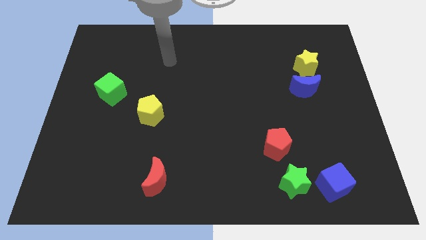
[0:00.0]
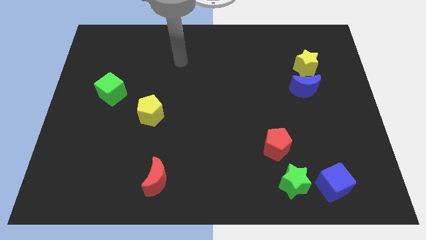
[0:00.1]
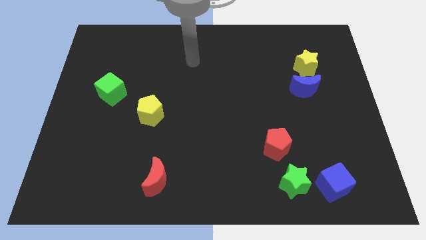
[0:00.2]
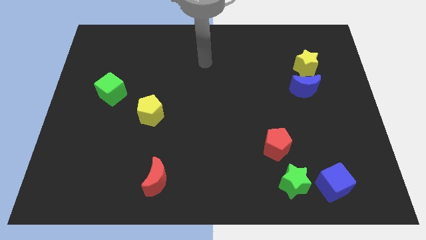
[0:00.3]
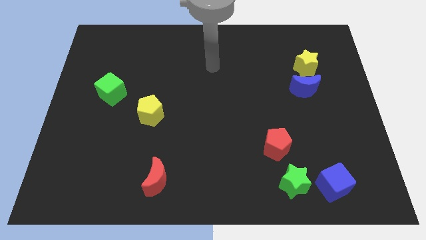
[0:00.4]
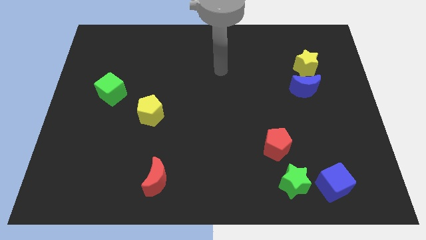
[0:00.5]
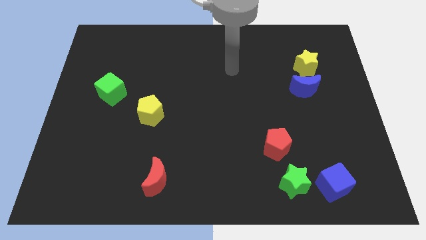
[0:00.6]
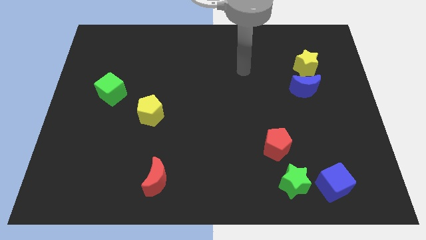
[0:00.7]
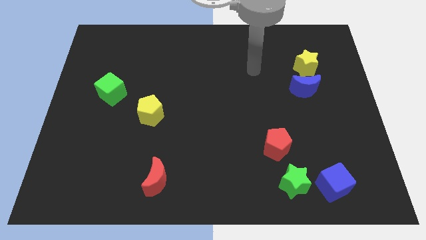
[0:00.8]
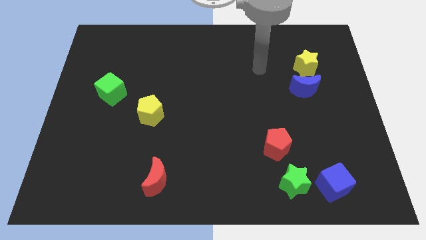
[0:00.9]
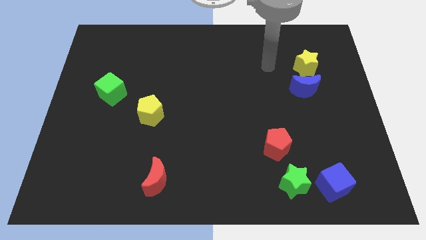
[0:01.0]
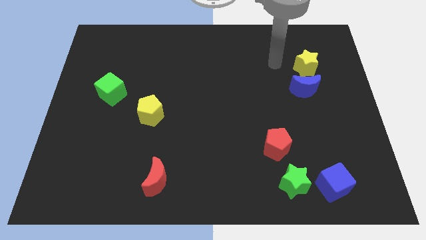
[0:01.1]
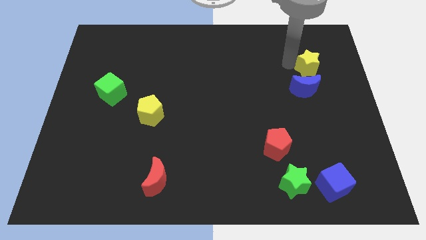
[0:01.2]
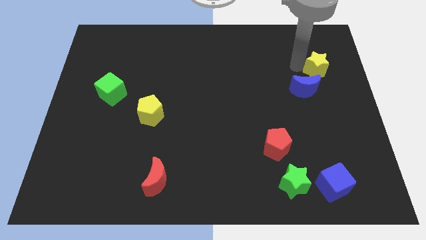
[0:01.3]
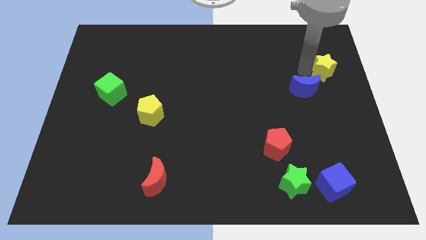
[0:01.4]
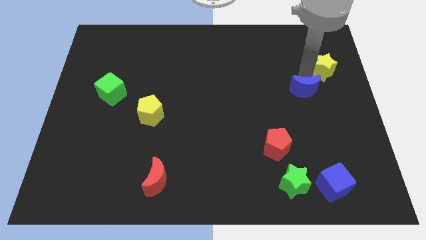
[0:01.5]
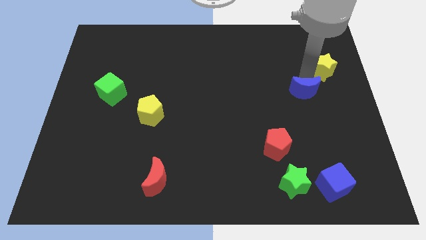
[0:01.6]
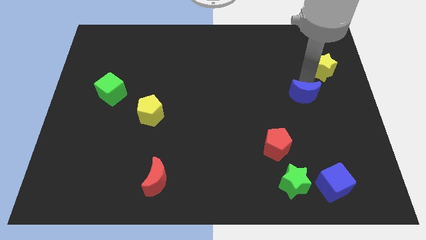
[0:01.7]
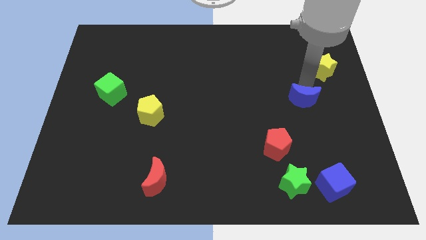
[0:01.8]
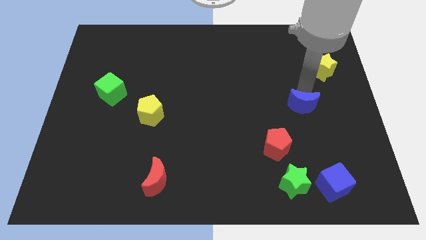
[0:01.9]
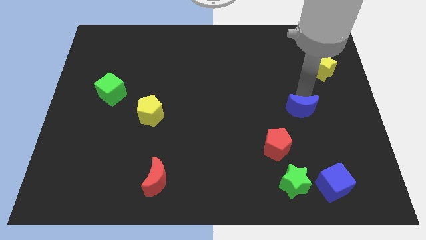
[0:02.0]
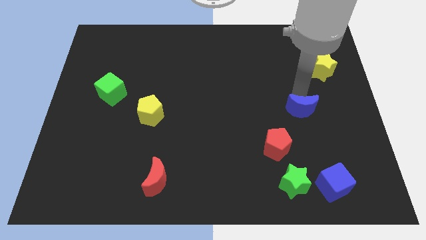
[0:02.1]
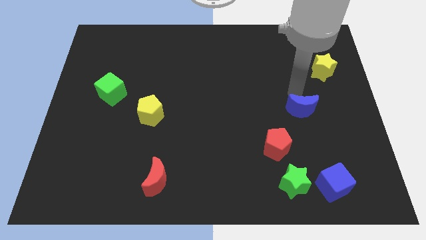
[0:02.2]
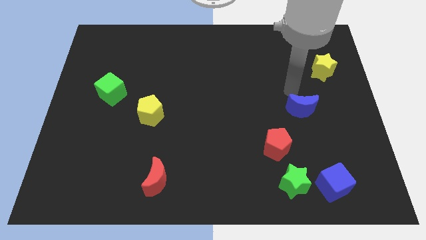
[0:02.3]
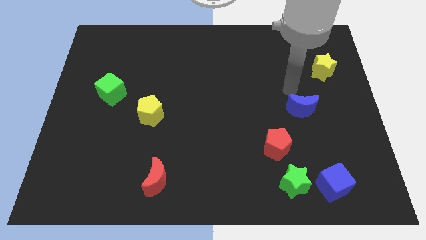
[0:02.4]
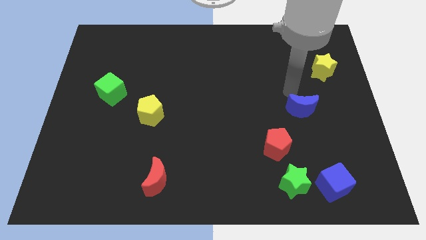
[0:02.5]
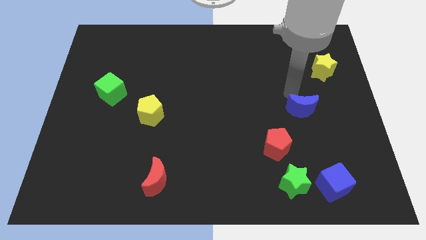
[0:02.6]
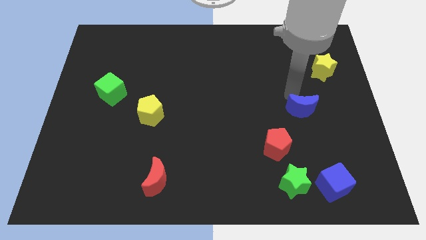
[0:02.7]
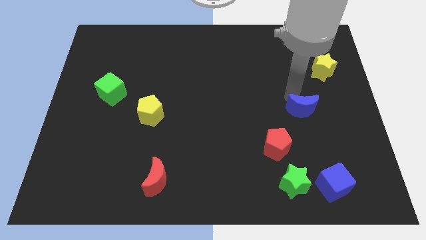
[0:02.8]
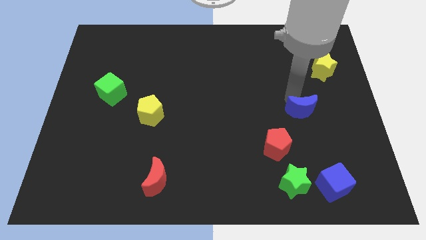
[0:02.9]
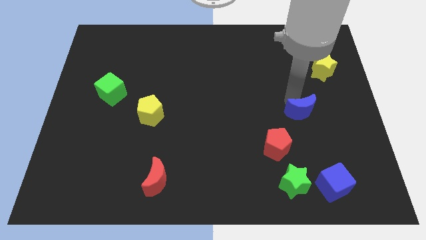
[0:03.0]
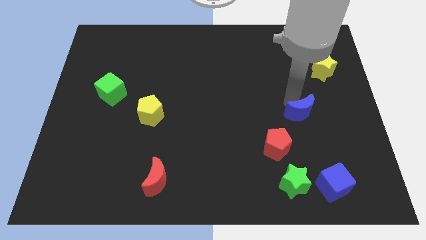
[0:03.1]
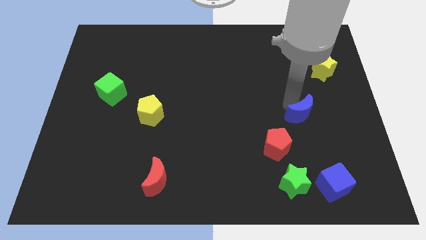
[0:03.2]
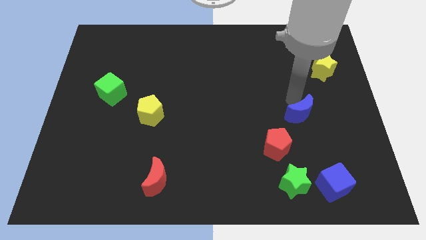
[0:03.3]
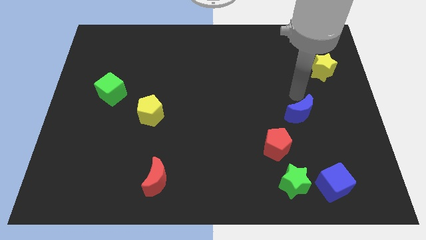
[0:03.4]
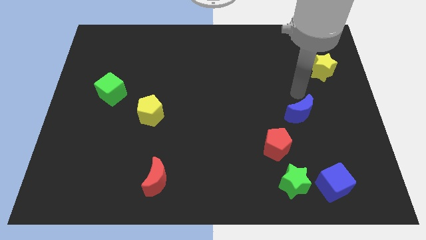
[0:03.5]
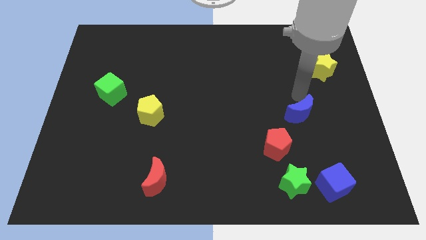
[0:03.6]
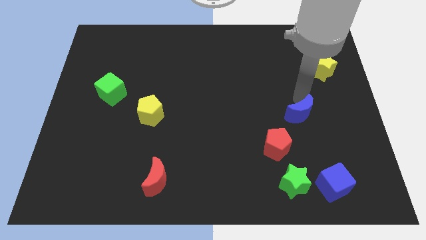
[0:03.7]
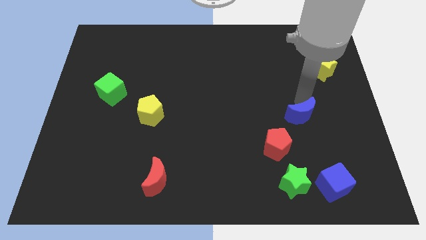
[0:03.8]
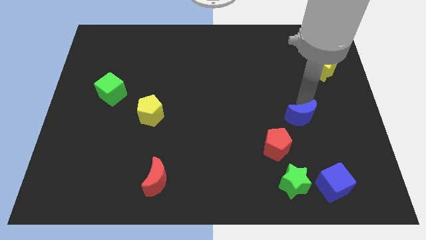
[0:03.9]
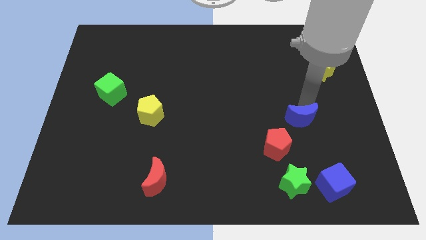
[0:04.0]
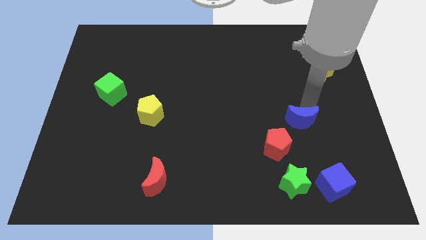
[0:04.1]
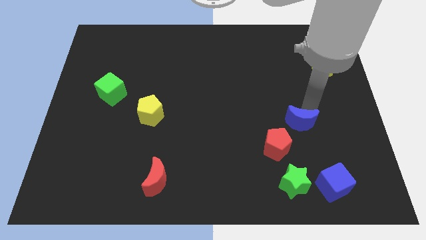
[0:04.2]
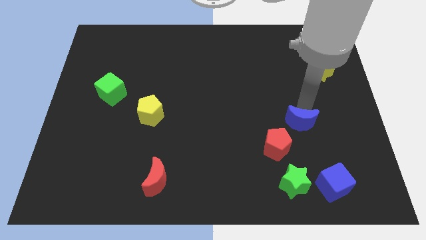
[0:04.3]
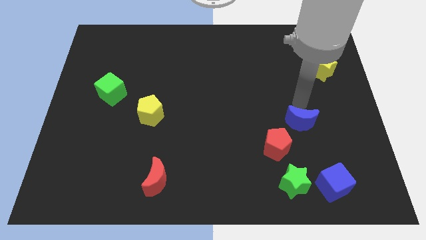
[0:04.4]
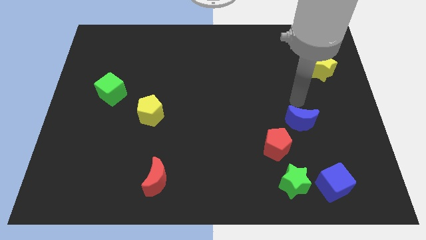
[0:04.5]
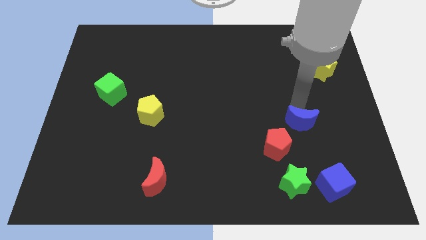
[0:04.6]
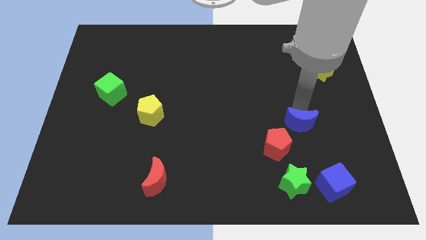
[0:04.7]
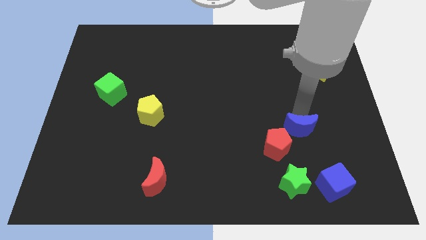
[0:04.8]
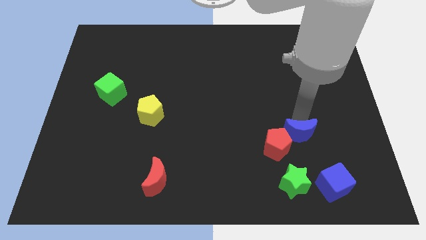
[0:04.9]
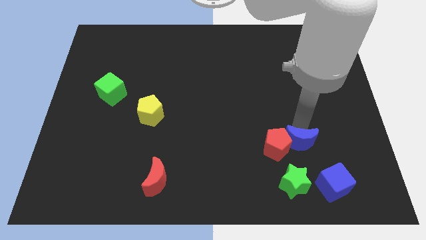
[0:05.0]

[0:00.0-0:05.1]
push the blue moon to the bottom right side of the red pentagon
